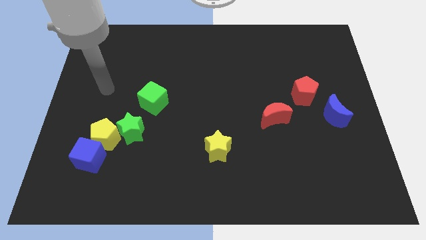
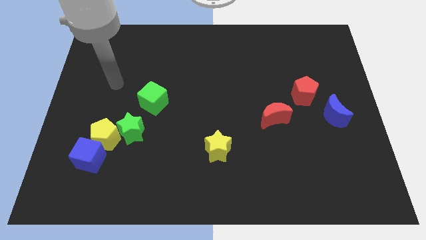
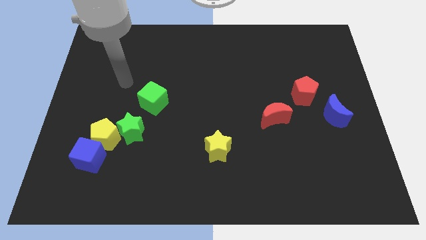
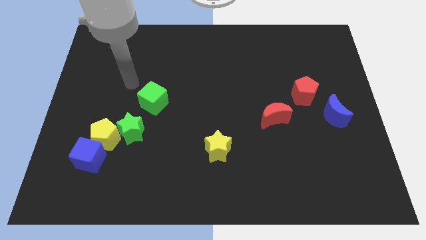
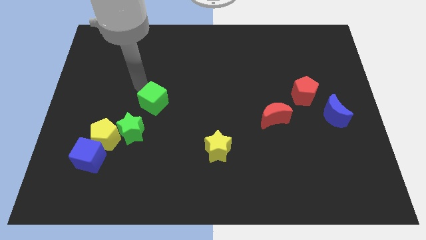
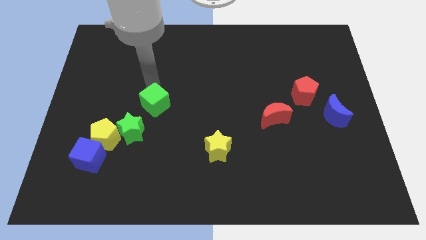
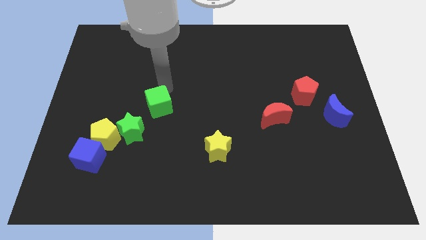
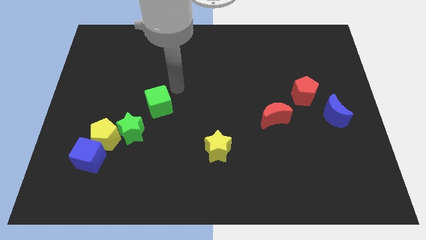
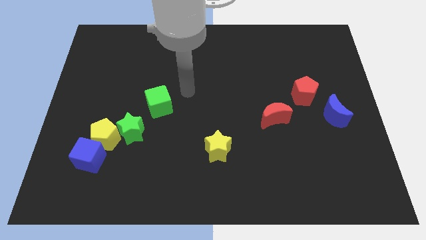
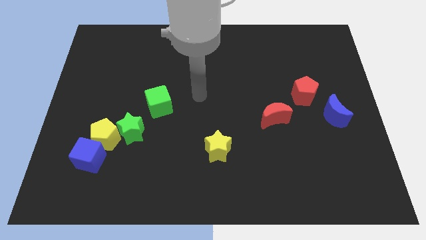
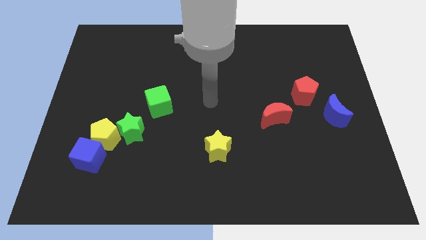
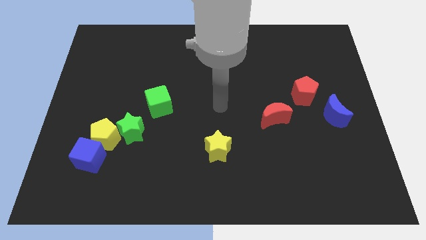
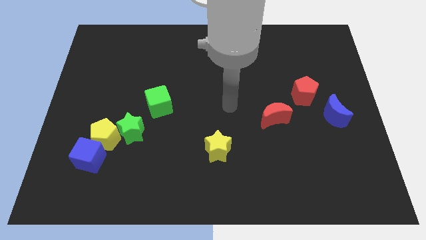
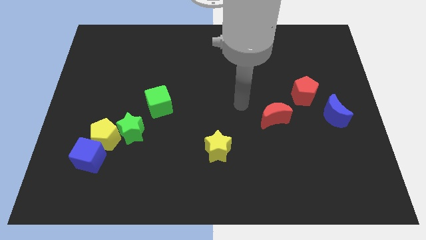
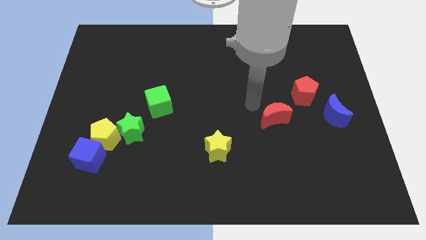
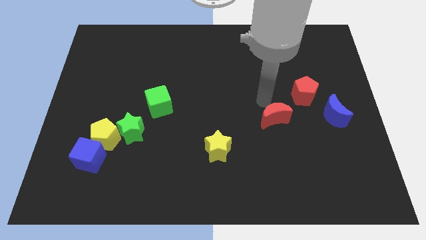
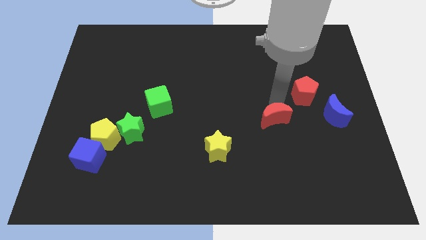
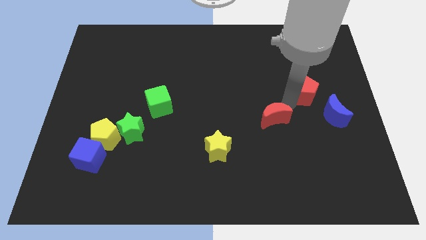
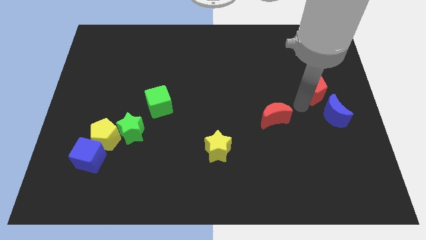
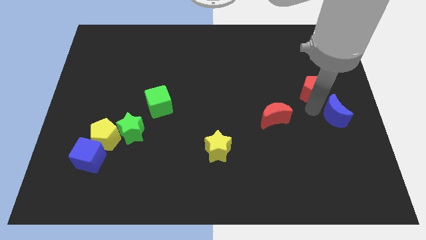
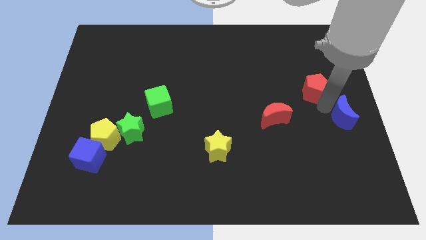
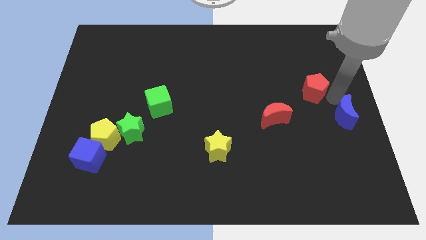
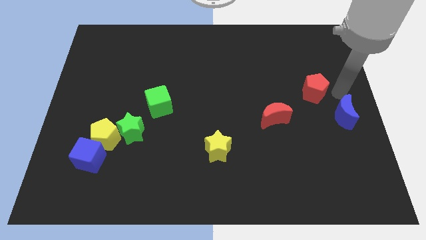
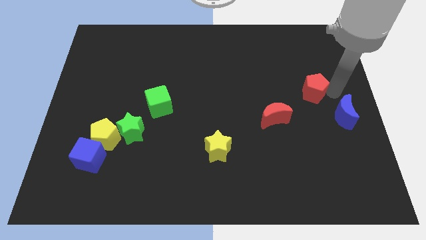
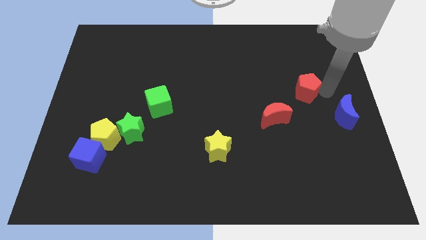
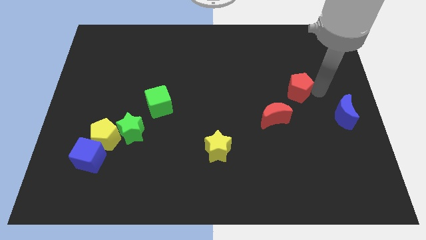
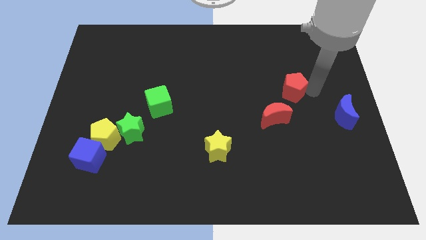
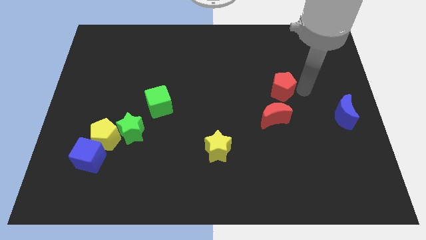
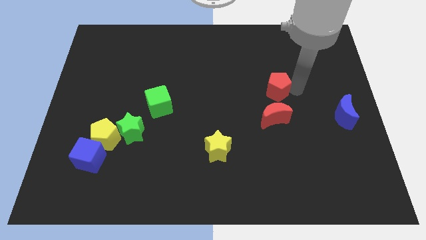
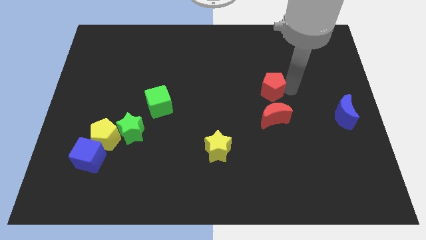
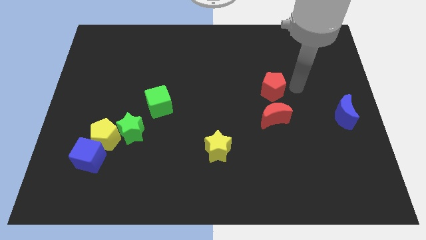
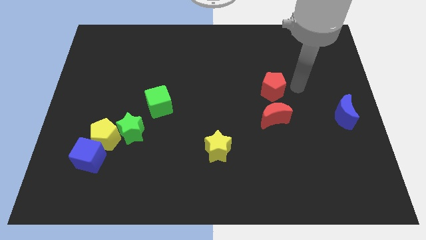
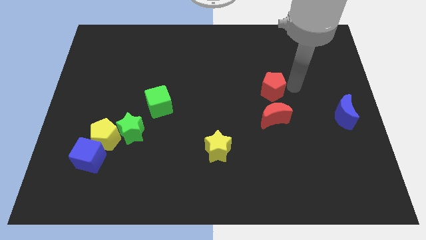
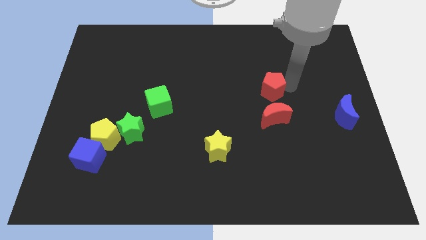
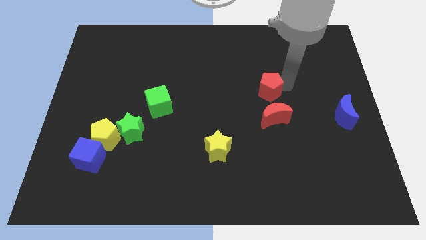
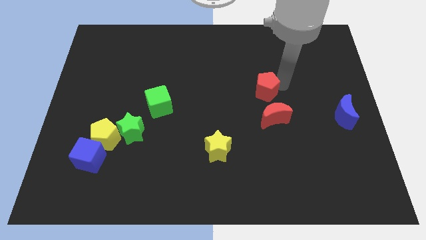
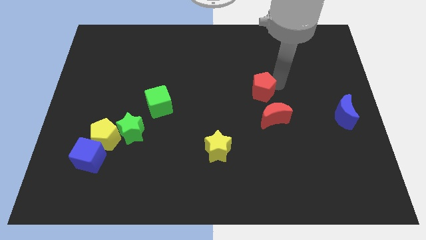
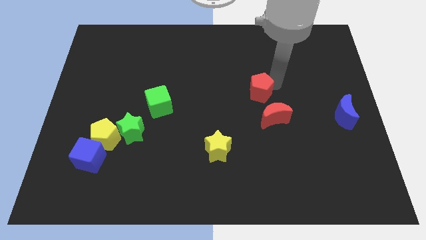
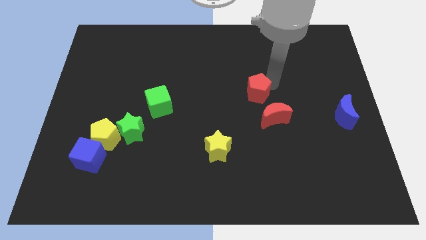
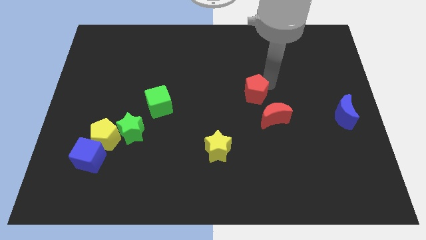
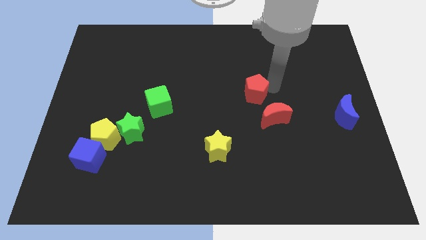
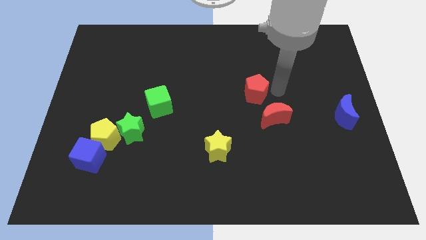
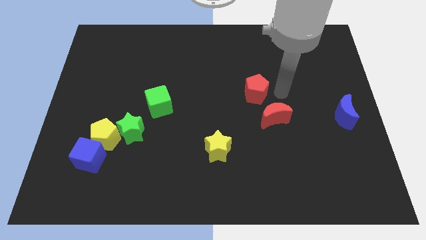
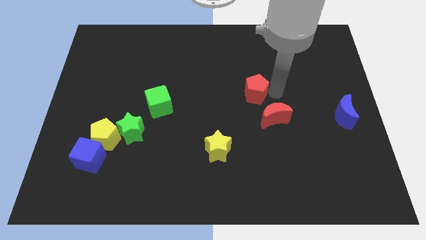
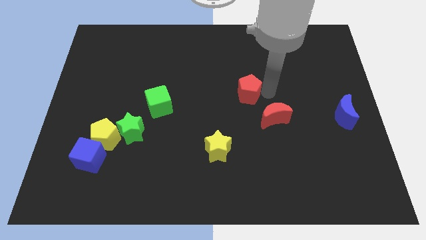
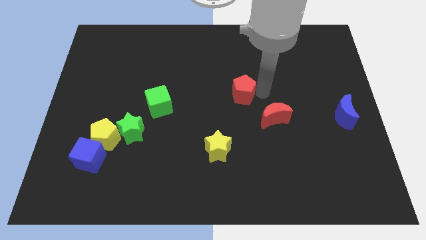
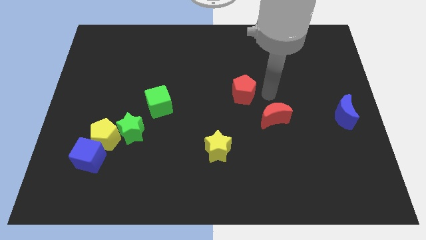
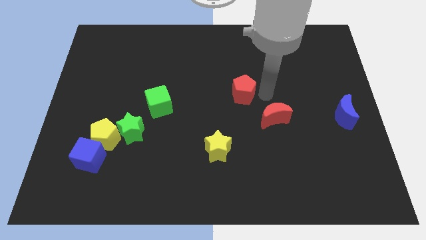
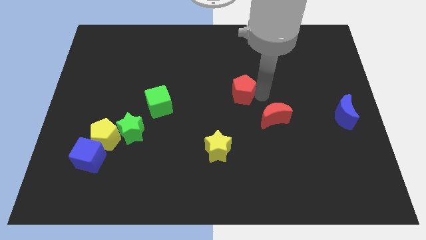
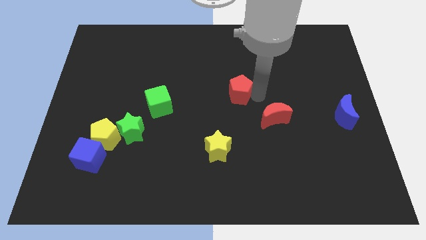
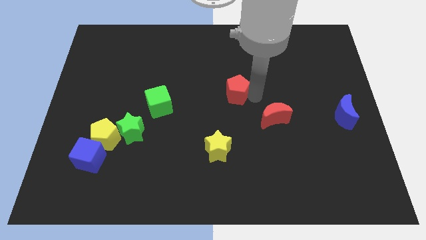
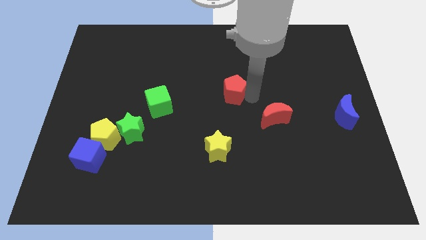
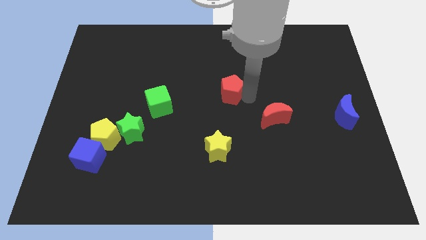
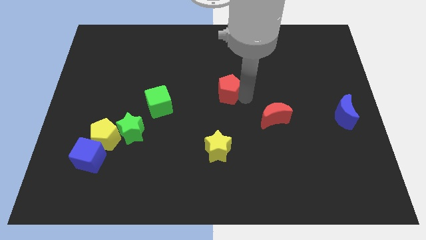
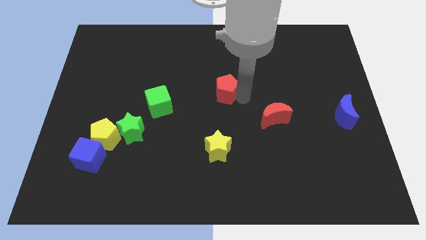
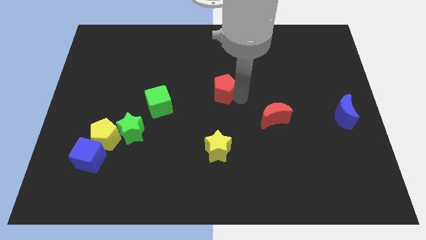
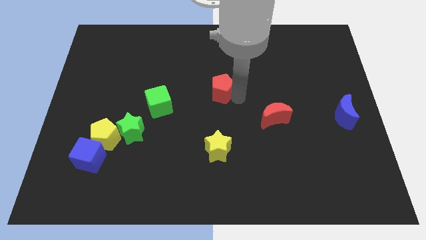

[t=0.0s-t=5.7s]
slide the red pentagon to the left

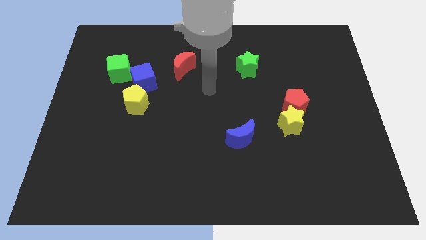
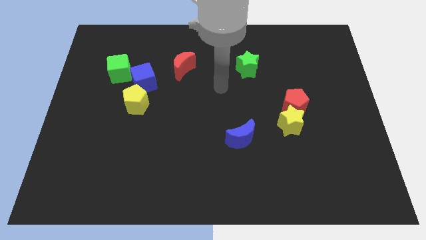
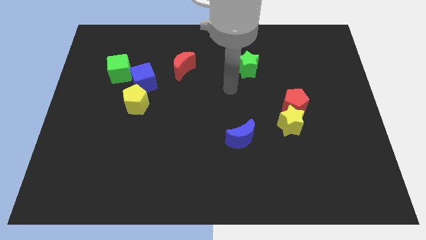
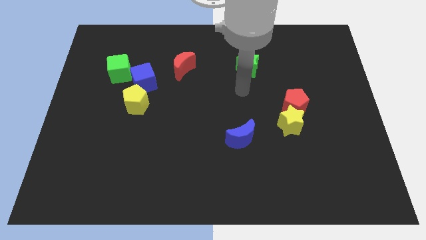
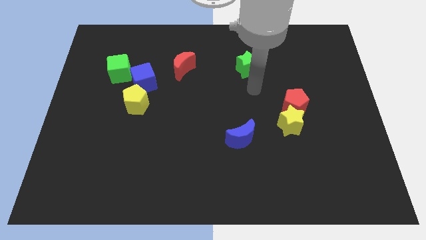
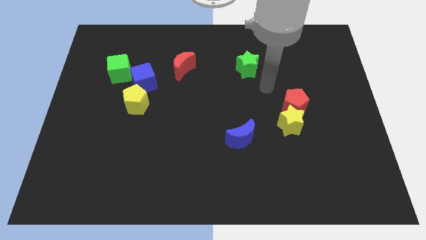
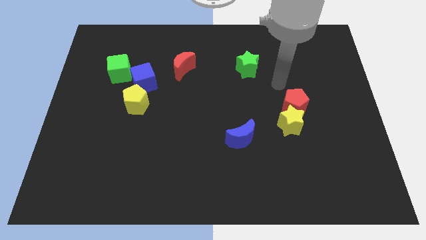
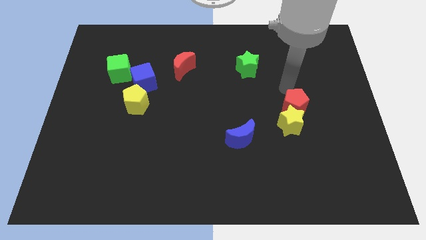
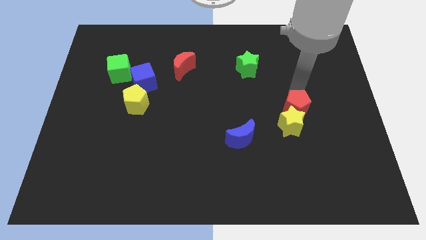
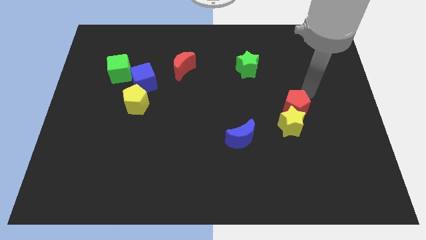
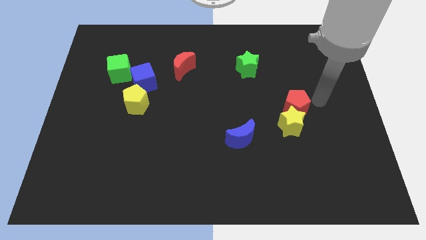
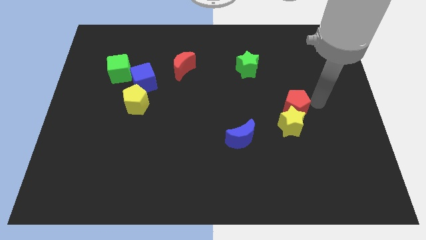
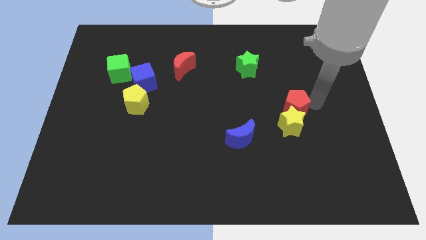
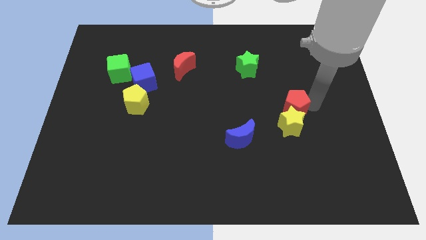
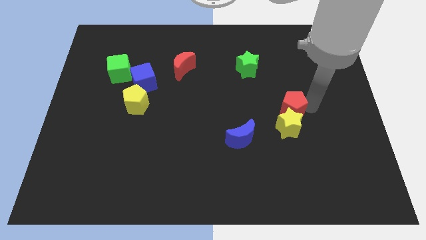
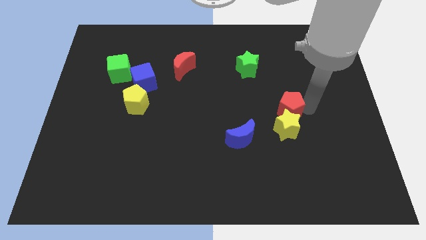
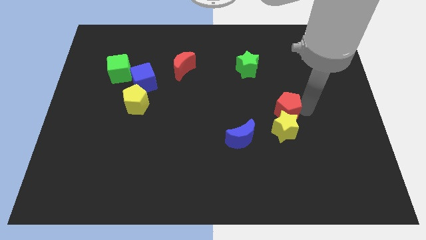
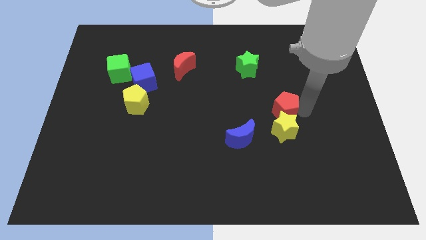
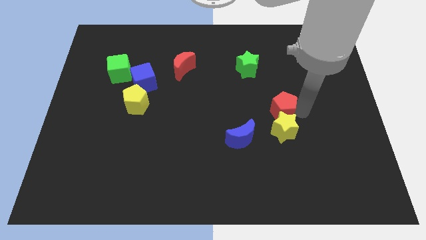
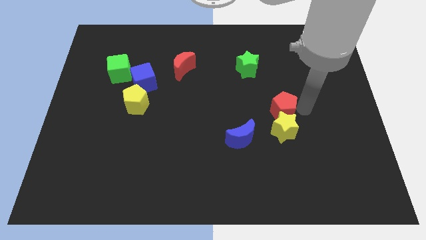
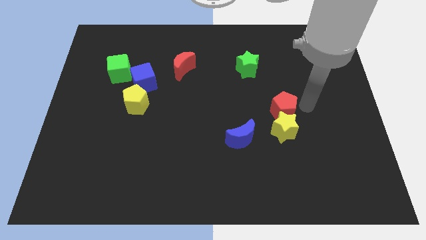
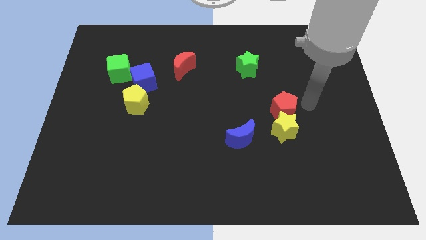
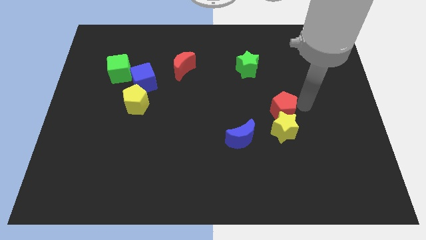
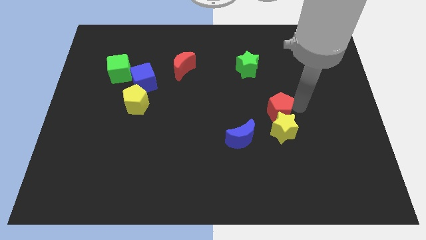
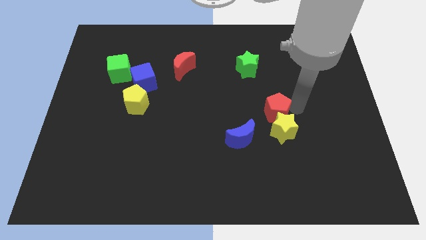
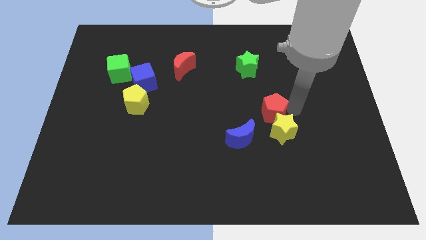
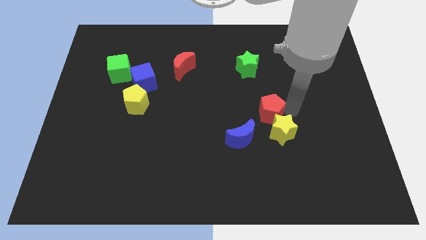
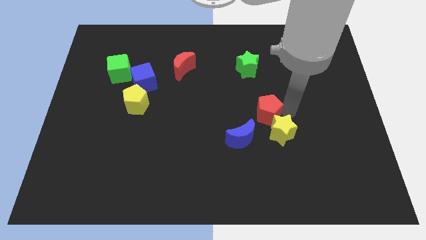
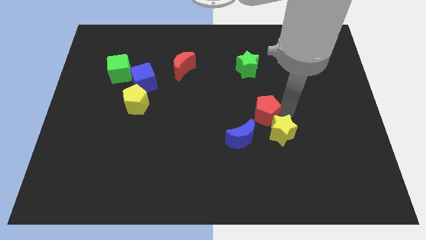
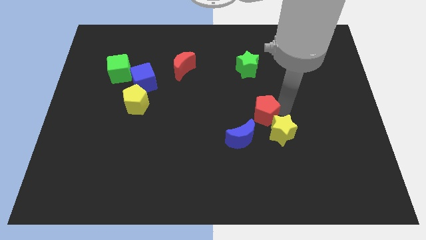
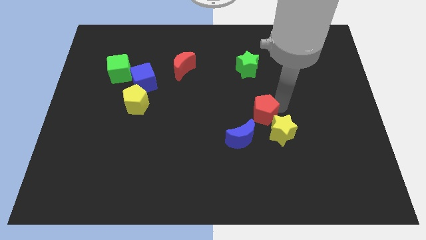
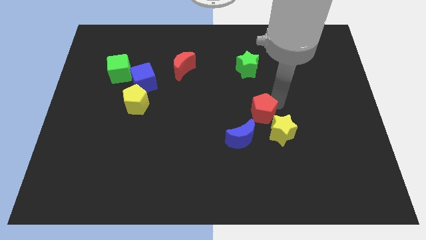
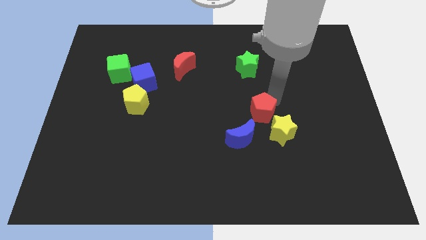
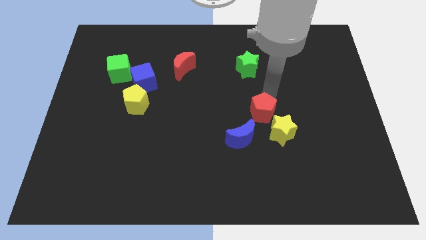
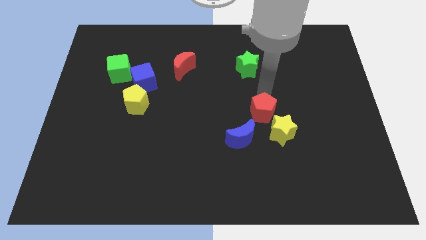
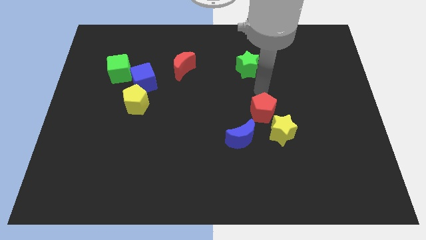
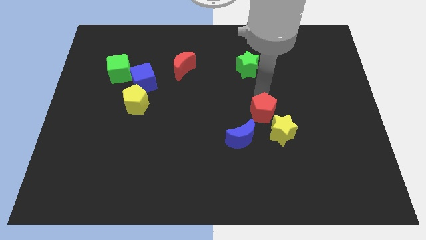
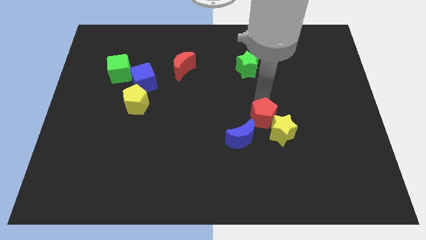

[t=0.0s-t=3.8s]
push the red pentagon slightly downwards and then left
